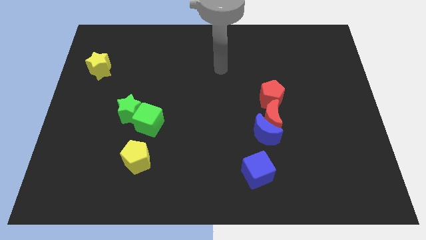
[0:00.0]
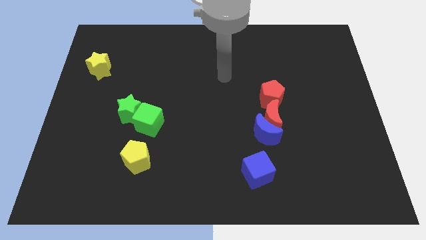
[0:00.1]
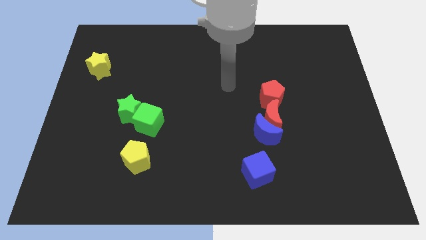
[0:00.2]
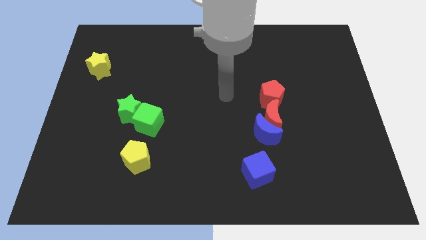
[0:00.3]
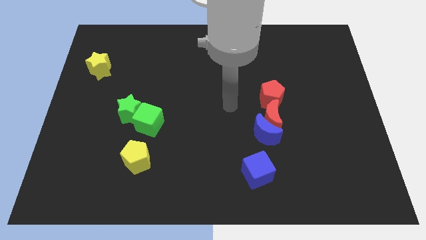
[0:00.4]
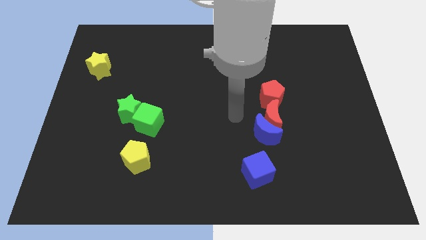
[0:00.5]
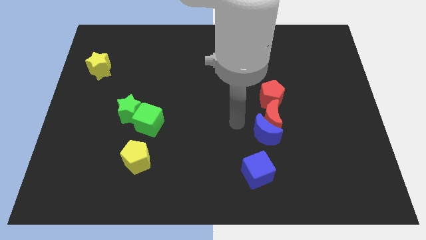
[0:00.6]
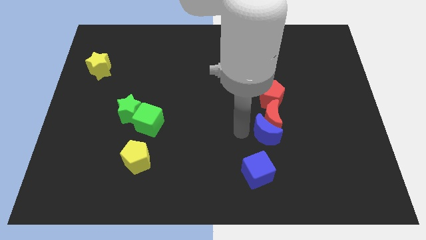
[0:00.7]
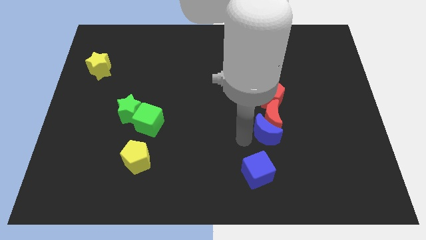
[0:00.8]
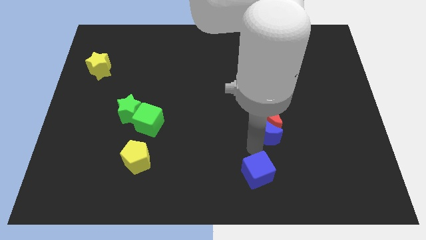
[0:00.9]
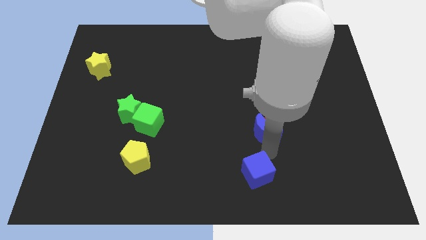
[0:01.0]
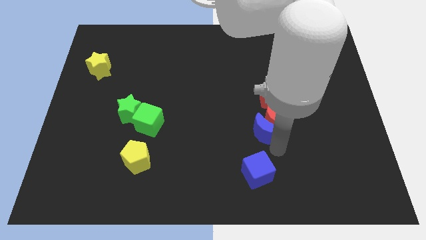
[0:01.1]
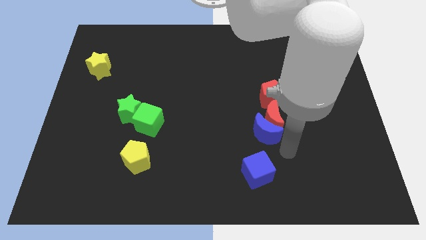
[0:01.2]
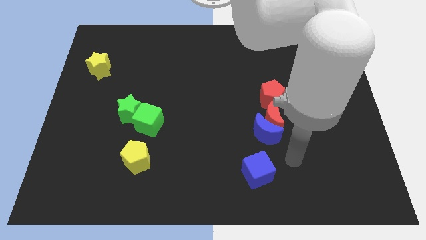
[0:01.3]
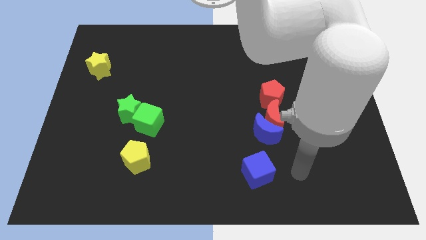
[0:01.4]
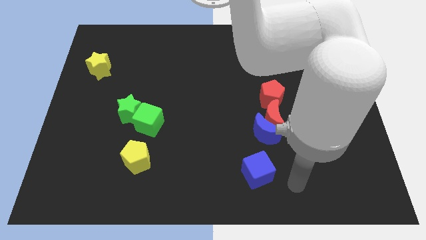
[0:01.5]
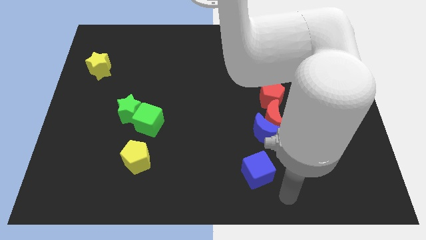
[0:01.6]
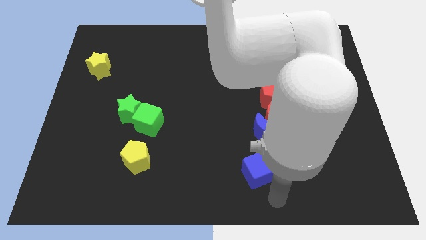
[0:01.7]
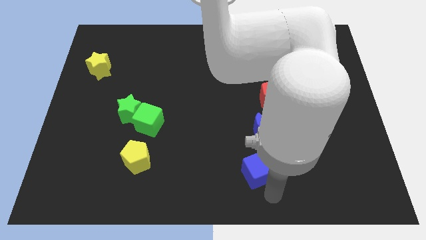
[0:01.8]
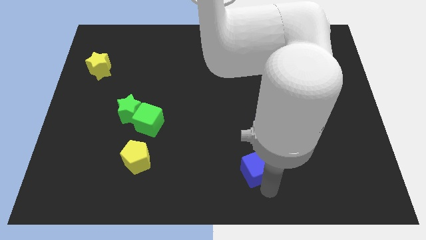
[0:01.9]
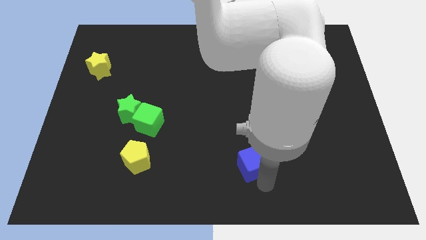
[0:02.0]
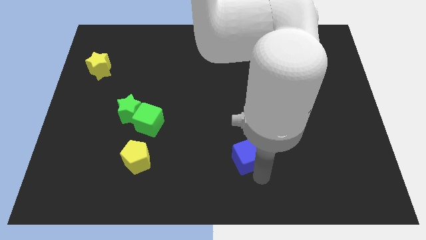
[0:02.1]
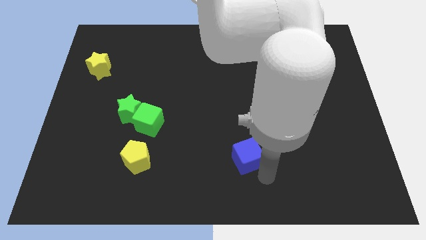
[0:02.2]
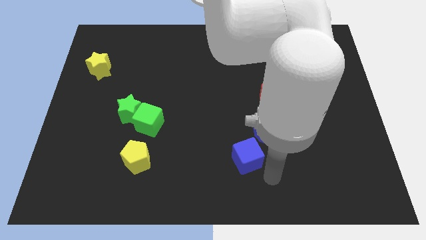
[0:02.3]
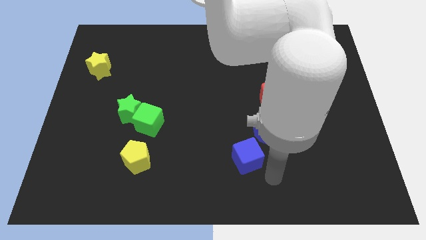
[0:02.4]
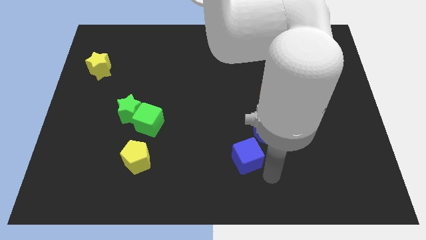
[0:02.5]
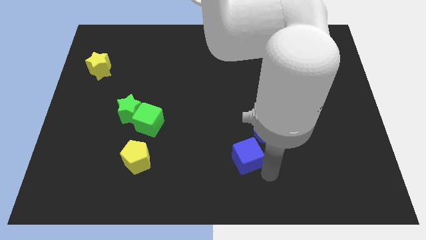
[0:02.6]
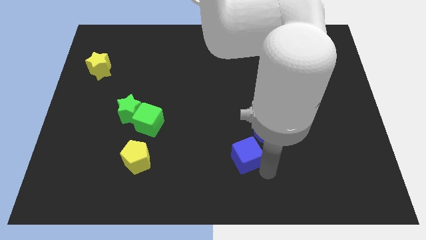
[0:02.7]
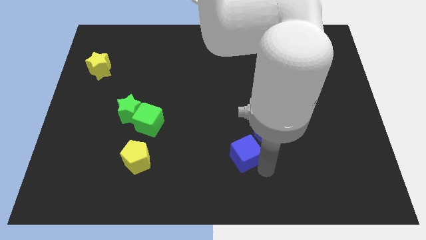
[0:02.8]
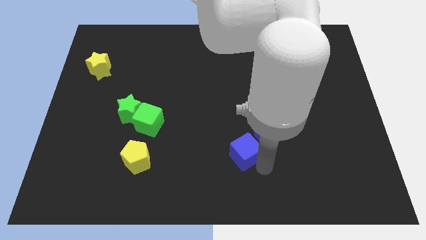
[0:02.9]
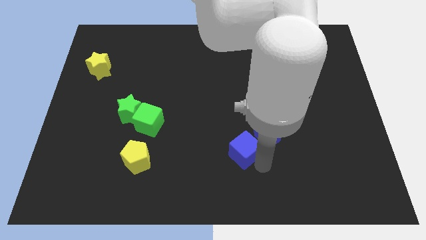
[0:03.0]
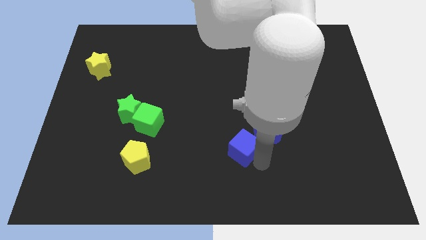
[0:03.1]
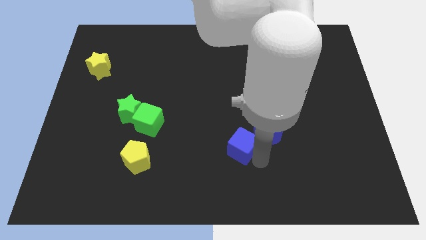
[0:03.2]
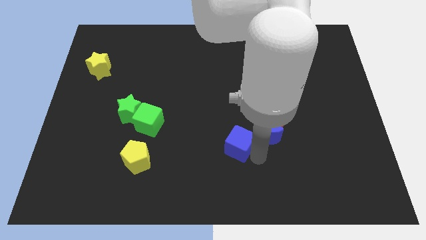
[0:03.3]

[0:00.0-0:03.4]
slightly push the blue cube upwards and left

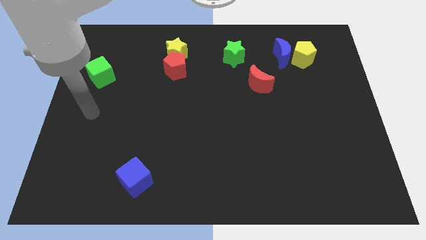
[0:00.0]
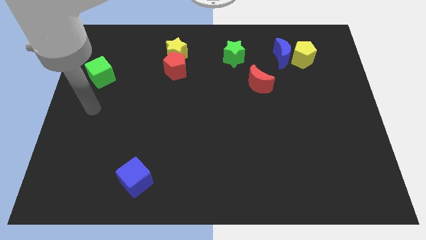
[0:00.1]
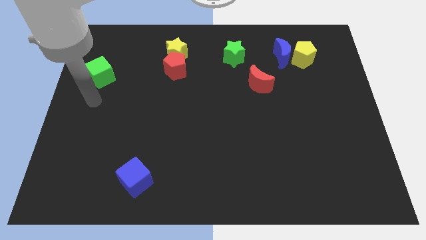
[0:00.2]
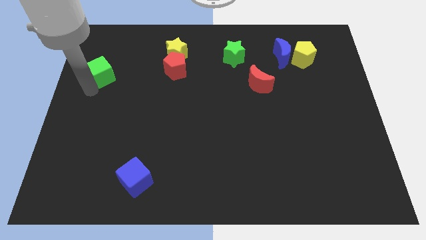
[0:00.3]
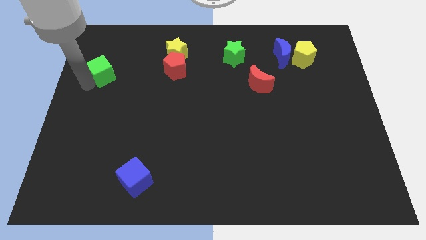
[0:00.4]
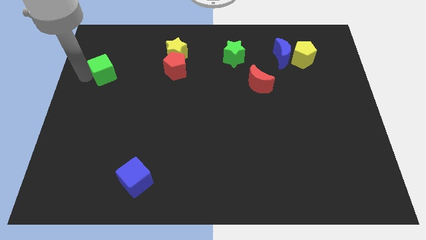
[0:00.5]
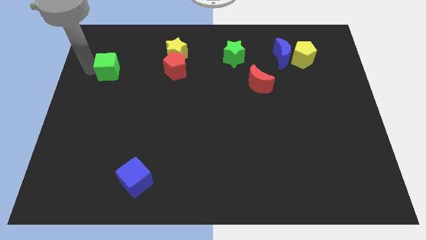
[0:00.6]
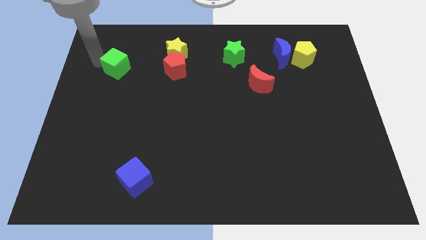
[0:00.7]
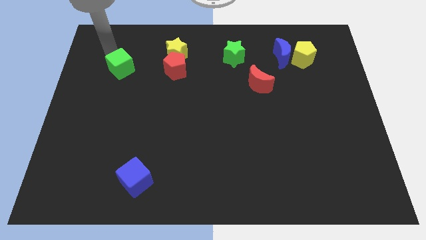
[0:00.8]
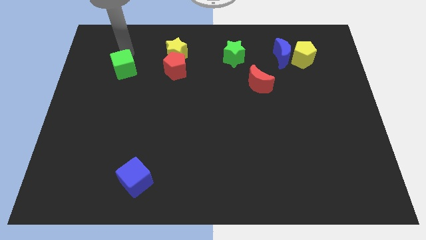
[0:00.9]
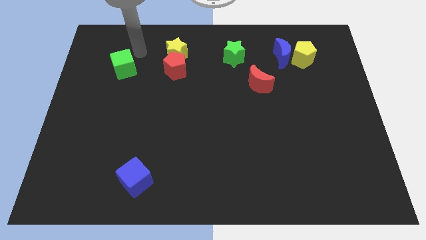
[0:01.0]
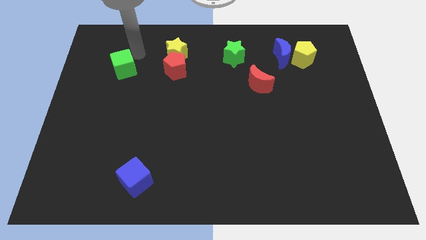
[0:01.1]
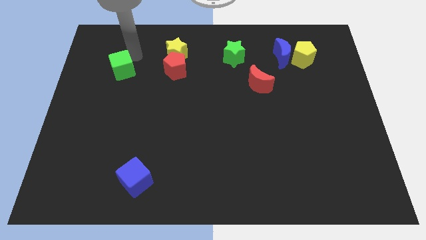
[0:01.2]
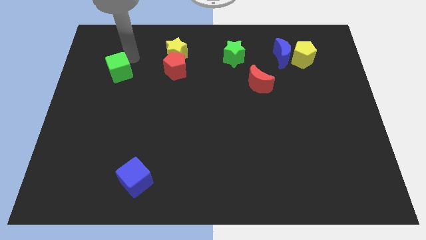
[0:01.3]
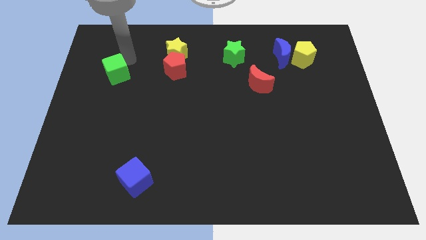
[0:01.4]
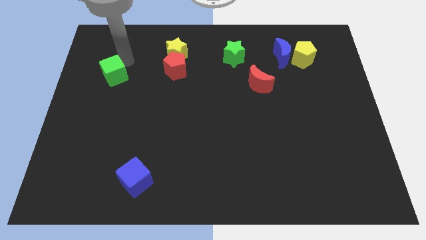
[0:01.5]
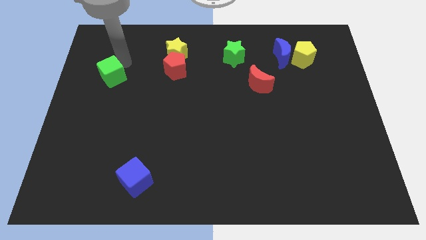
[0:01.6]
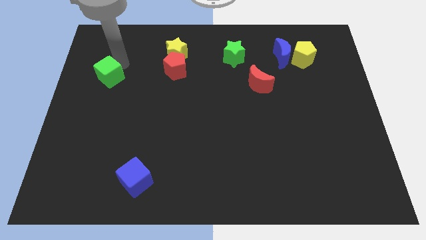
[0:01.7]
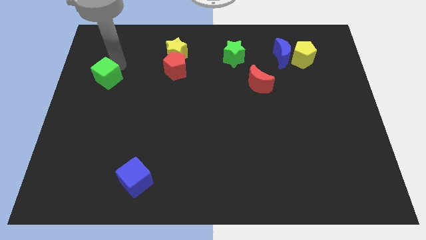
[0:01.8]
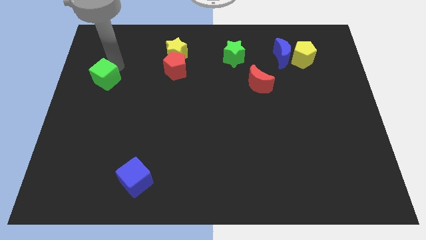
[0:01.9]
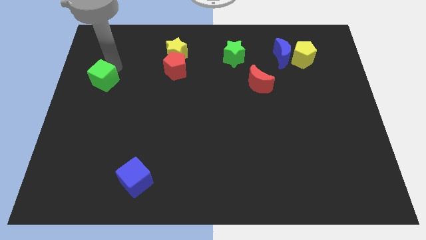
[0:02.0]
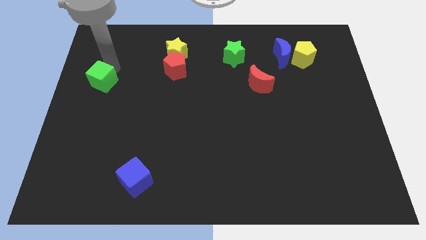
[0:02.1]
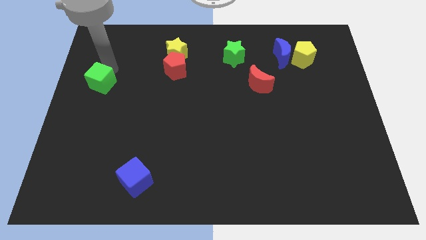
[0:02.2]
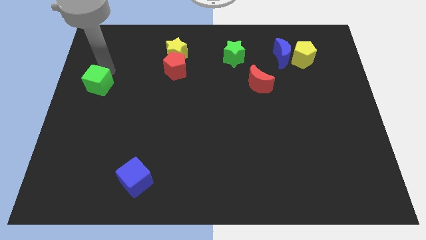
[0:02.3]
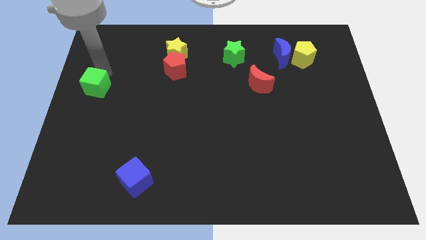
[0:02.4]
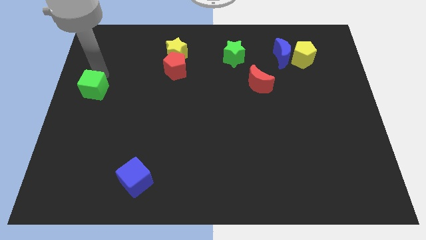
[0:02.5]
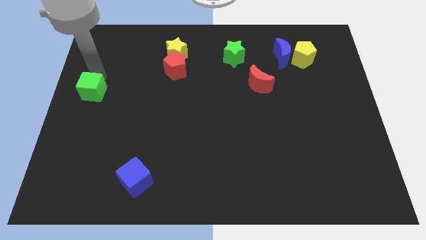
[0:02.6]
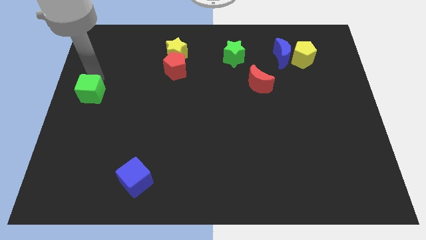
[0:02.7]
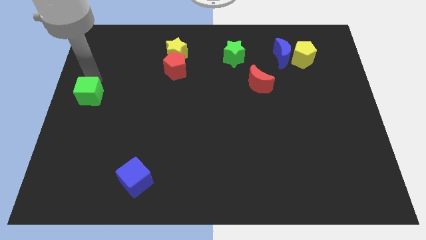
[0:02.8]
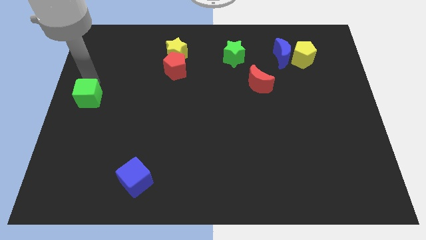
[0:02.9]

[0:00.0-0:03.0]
move the green cube down a bit

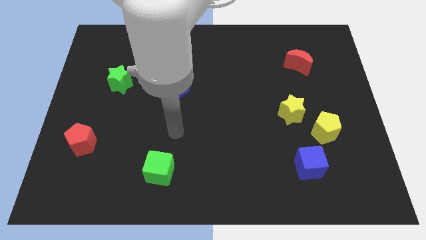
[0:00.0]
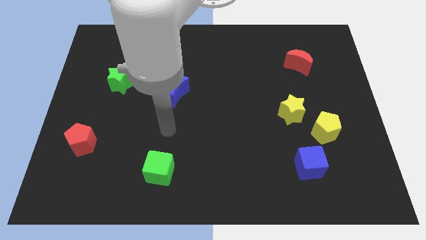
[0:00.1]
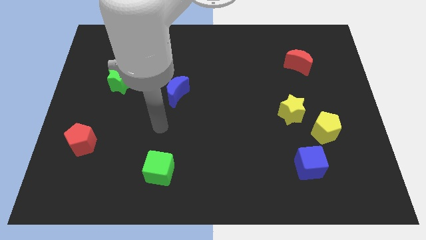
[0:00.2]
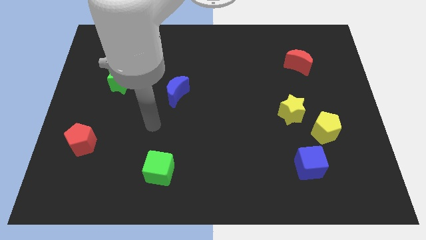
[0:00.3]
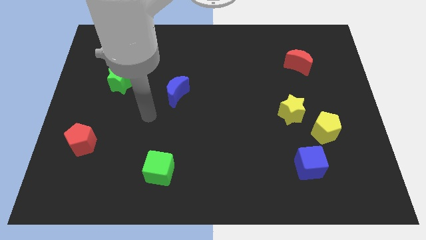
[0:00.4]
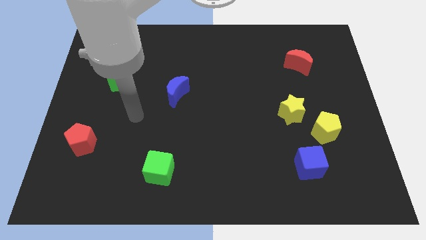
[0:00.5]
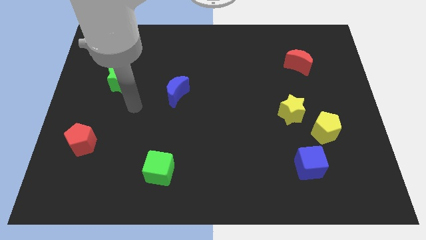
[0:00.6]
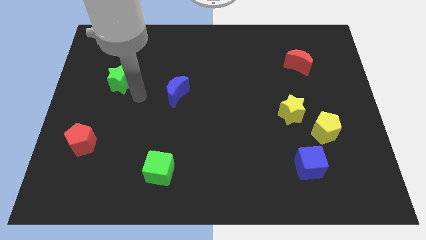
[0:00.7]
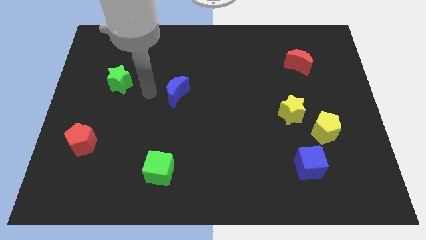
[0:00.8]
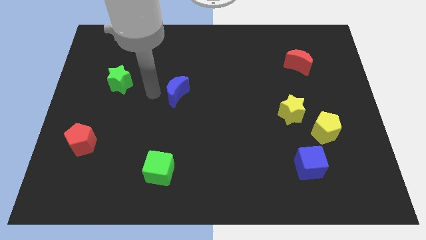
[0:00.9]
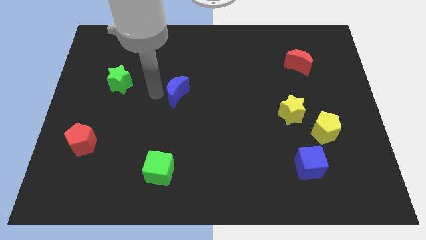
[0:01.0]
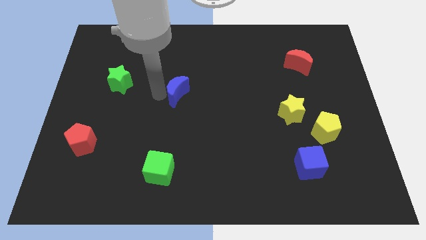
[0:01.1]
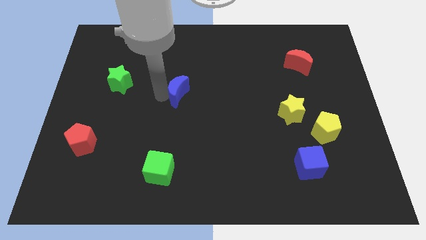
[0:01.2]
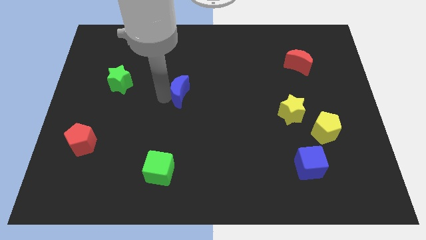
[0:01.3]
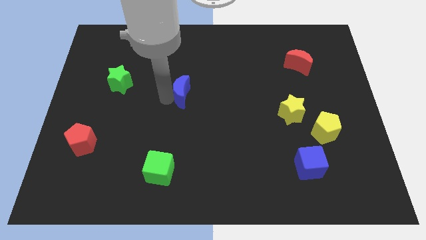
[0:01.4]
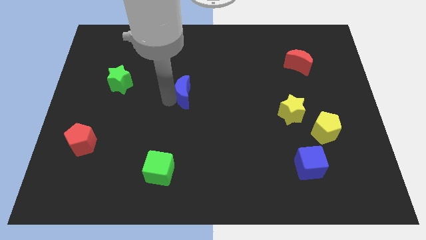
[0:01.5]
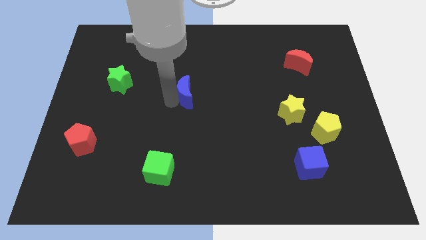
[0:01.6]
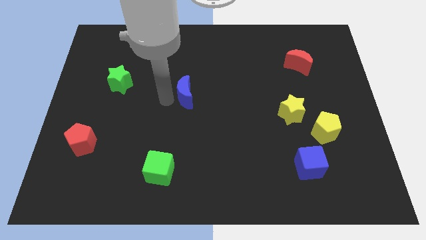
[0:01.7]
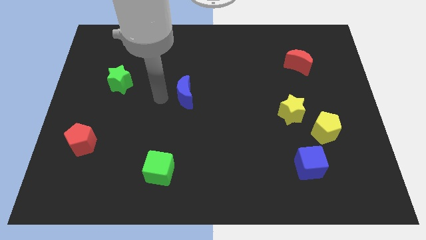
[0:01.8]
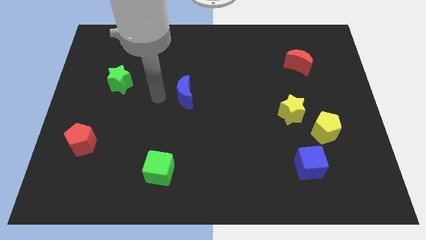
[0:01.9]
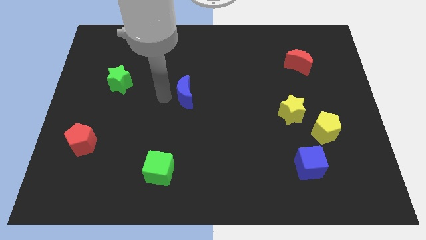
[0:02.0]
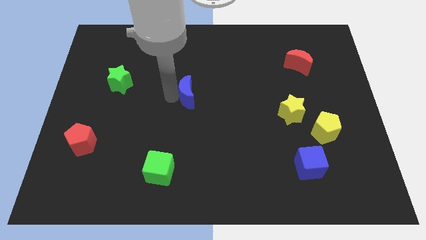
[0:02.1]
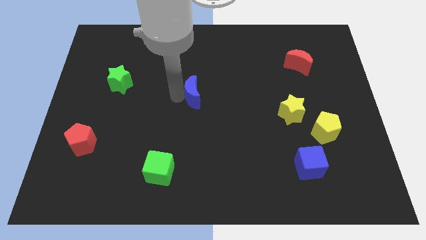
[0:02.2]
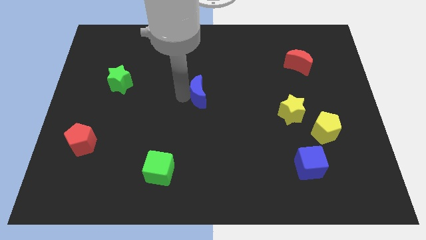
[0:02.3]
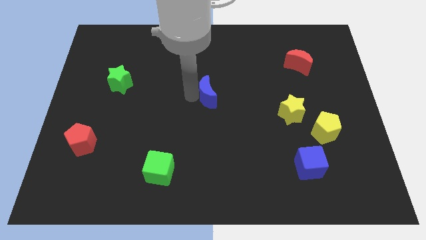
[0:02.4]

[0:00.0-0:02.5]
slide the blue moon to the right a little bit
